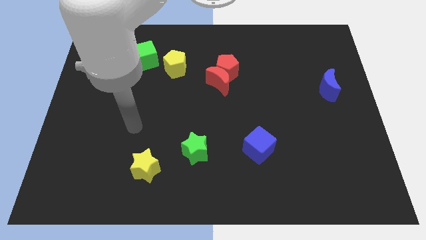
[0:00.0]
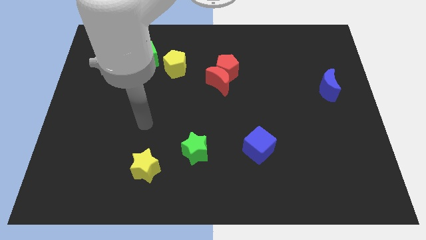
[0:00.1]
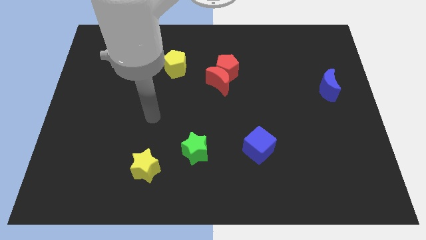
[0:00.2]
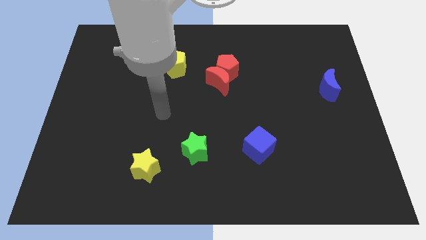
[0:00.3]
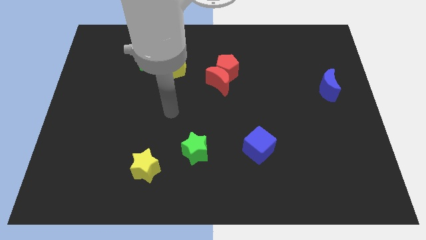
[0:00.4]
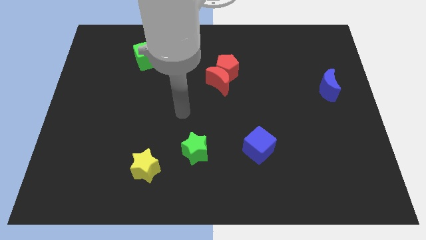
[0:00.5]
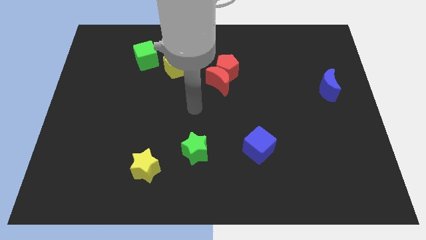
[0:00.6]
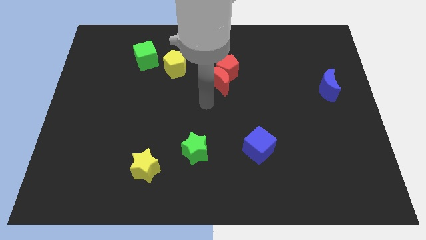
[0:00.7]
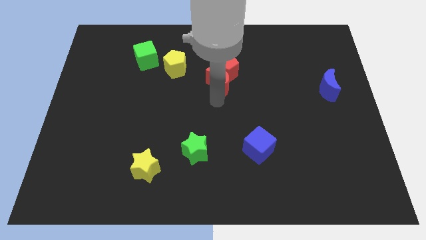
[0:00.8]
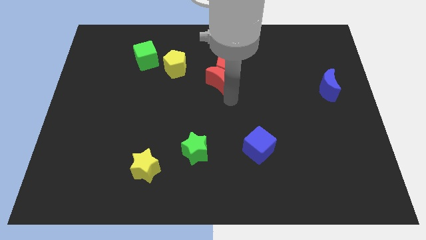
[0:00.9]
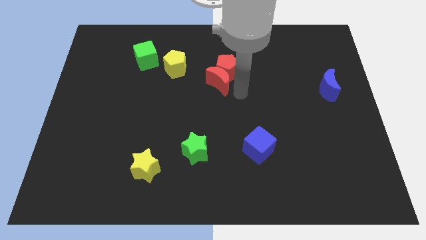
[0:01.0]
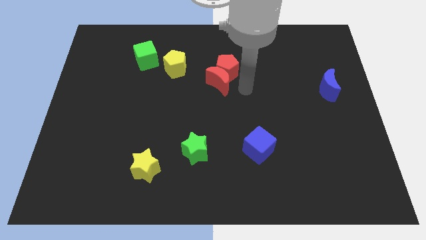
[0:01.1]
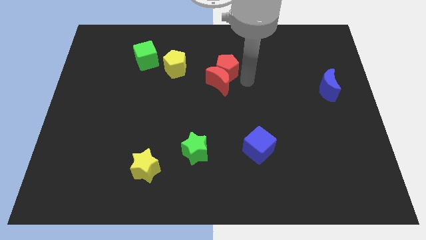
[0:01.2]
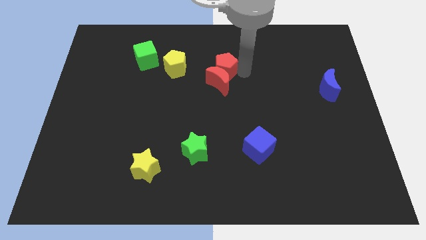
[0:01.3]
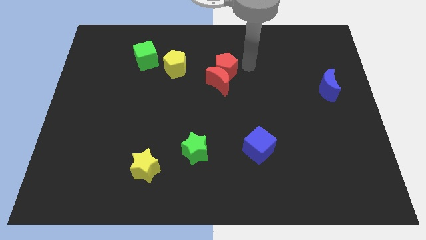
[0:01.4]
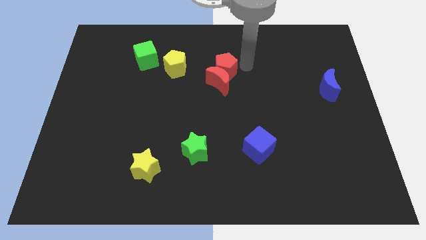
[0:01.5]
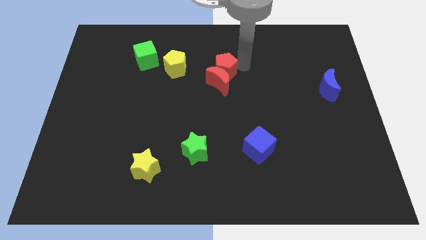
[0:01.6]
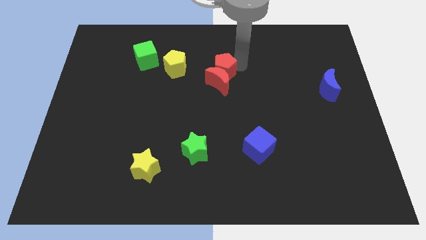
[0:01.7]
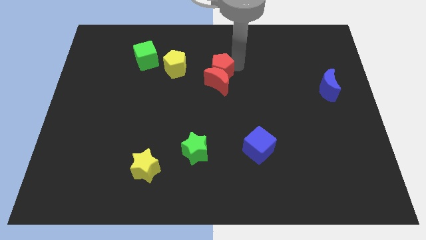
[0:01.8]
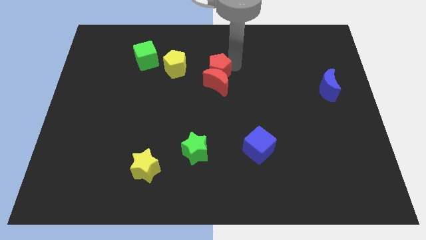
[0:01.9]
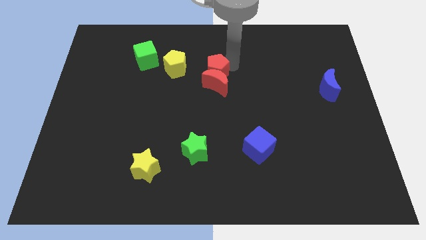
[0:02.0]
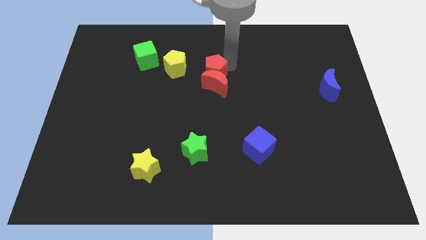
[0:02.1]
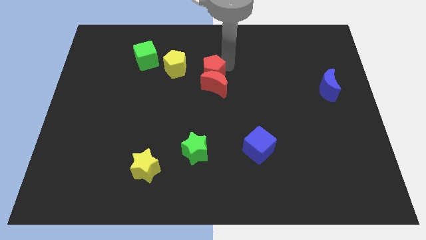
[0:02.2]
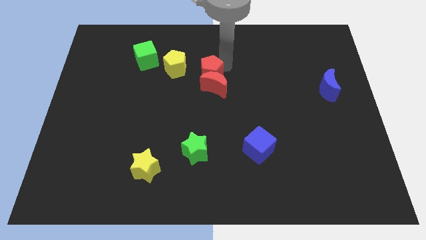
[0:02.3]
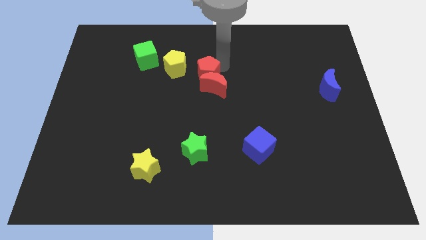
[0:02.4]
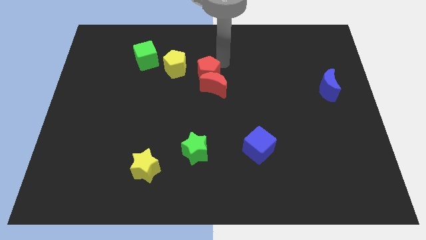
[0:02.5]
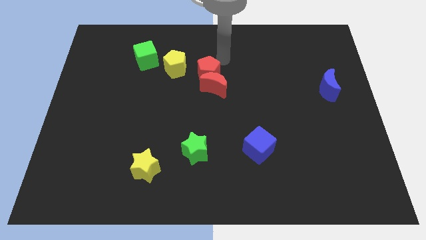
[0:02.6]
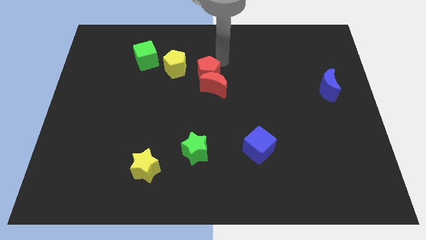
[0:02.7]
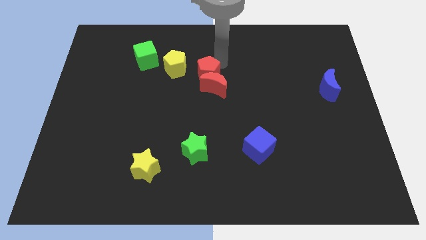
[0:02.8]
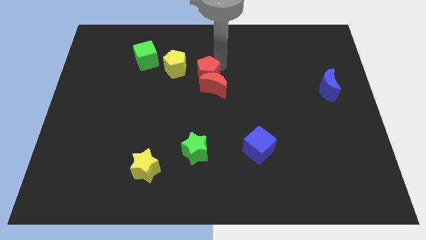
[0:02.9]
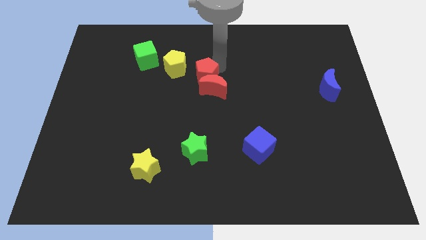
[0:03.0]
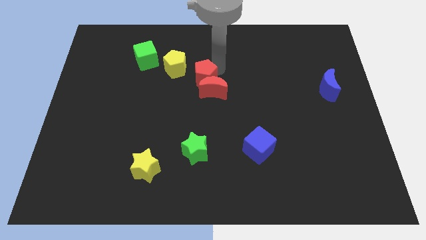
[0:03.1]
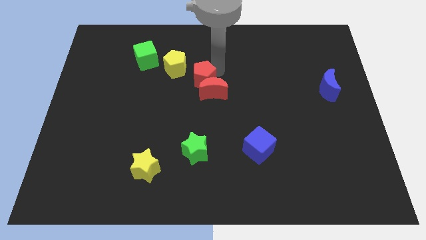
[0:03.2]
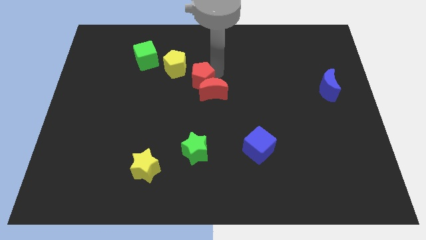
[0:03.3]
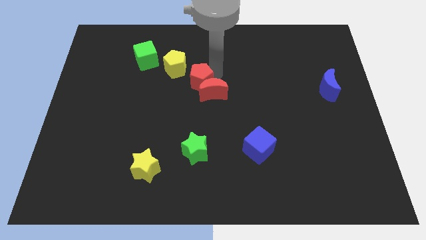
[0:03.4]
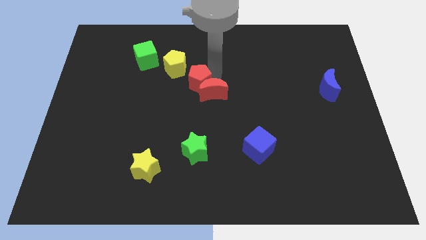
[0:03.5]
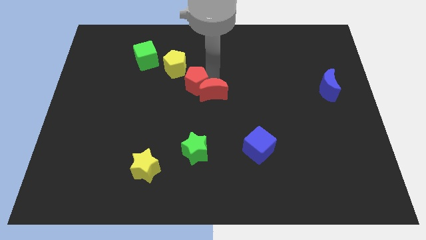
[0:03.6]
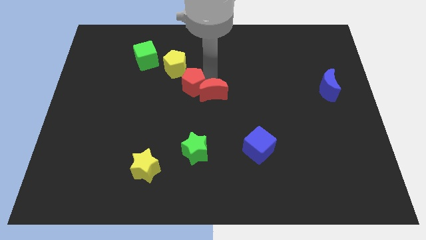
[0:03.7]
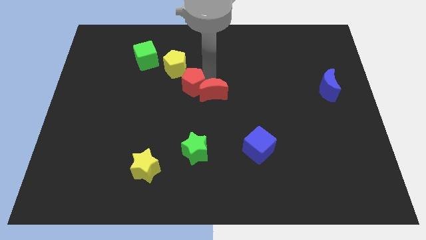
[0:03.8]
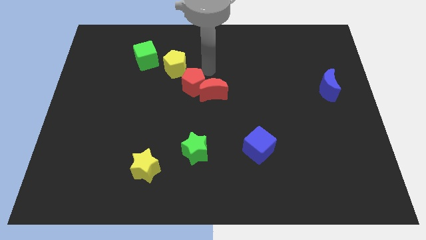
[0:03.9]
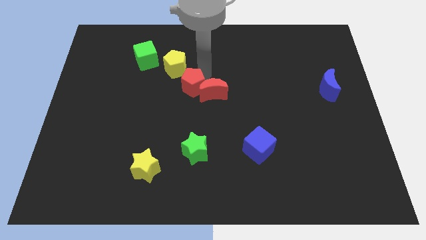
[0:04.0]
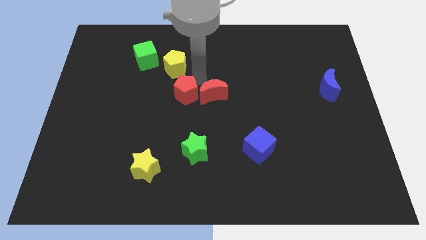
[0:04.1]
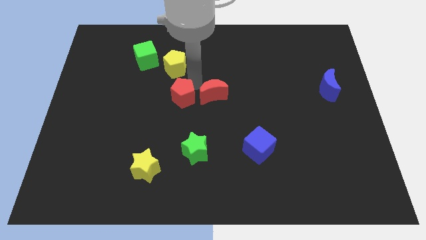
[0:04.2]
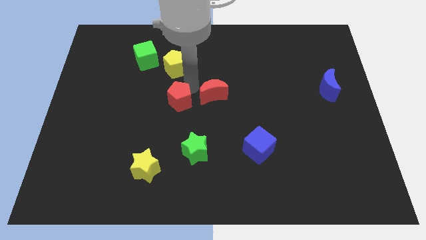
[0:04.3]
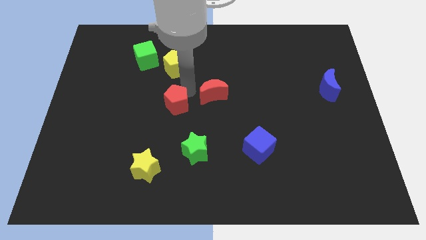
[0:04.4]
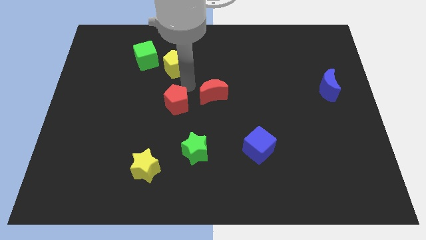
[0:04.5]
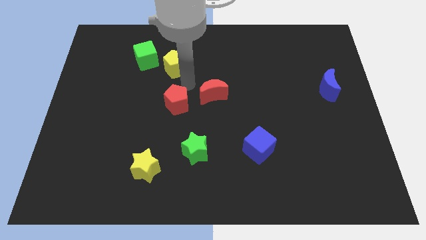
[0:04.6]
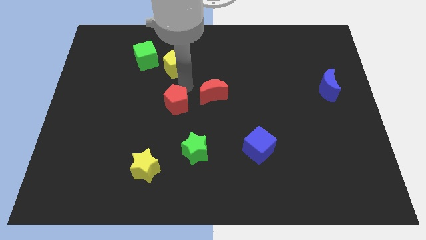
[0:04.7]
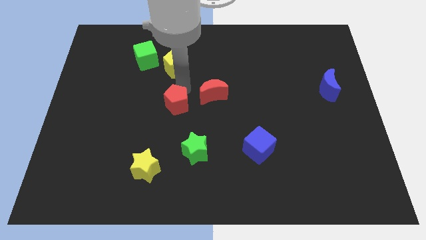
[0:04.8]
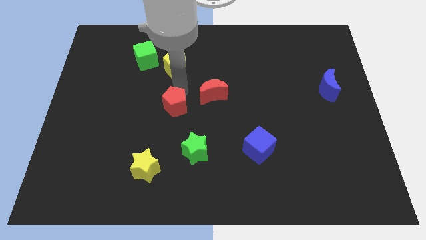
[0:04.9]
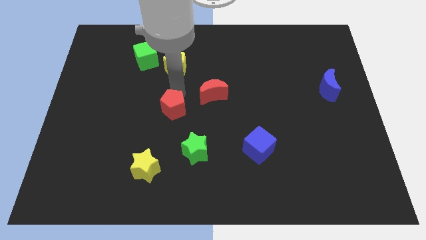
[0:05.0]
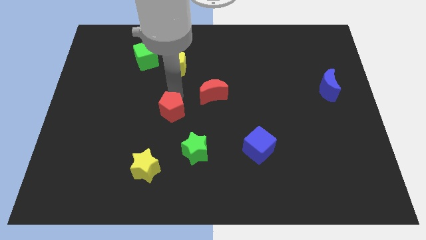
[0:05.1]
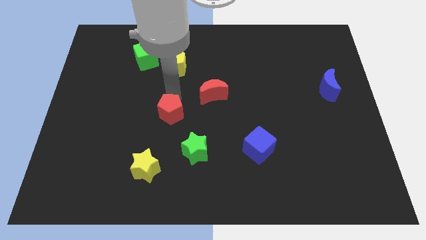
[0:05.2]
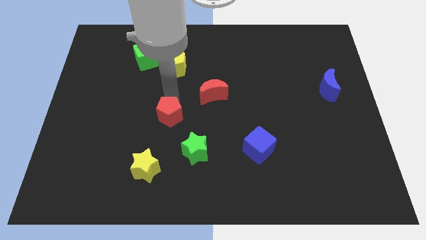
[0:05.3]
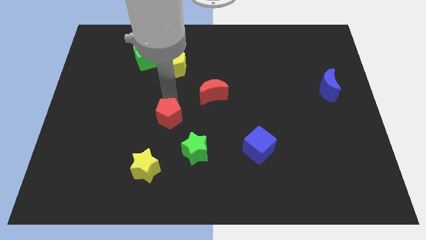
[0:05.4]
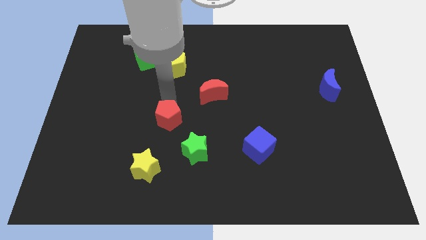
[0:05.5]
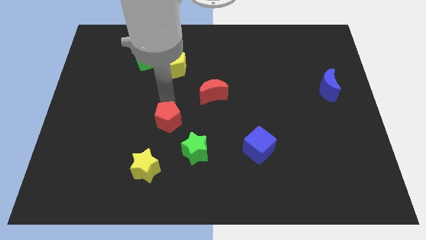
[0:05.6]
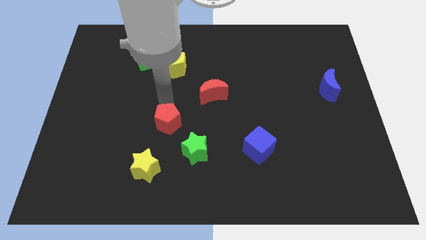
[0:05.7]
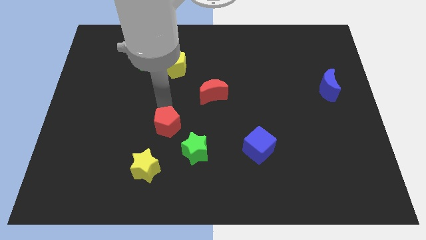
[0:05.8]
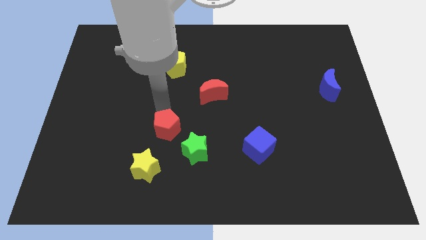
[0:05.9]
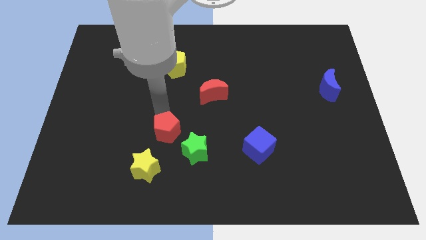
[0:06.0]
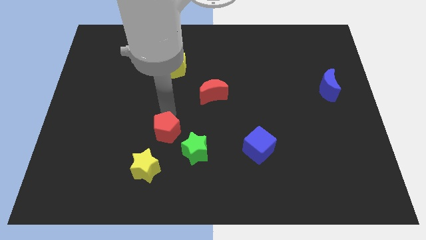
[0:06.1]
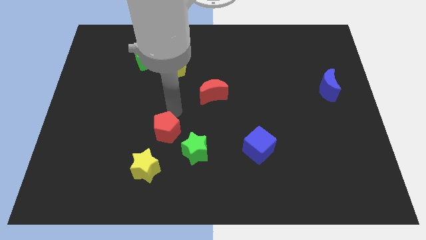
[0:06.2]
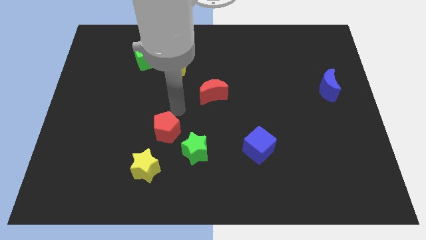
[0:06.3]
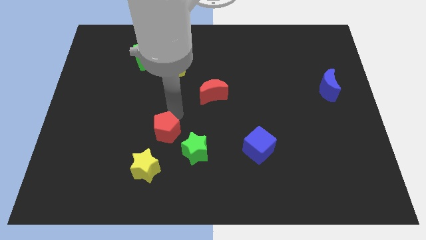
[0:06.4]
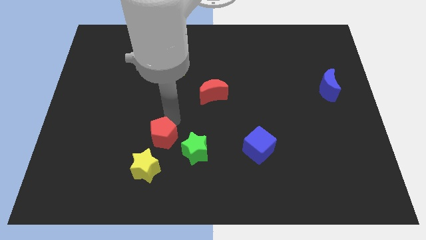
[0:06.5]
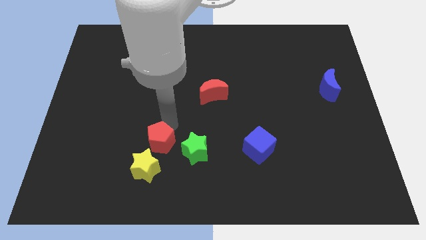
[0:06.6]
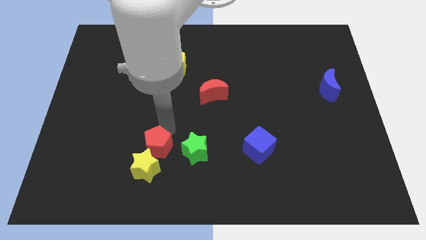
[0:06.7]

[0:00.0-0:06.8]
put the red pentagon towards the yellow star
